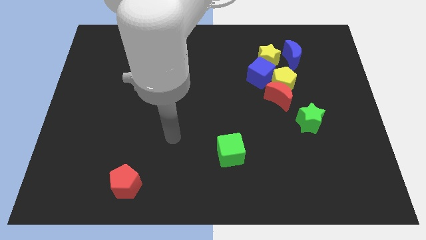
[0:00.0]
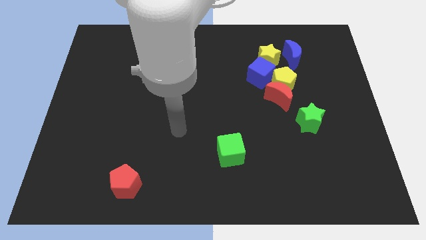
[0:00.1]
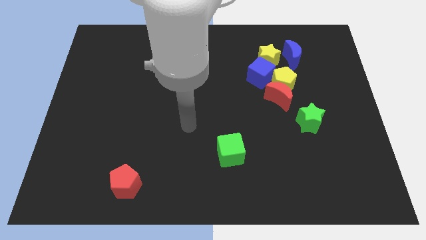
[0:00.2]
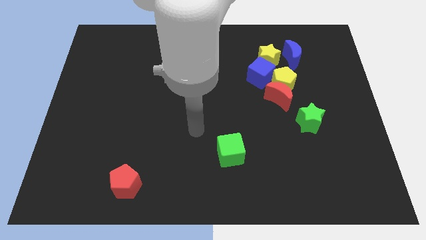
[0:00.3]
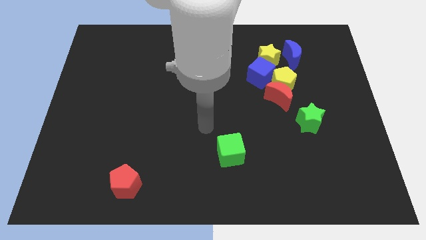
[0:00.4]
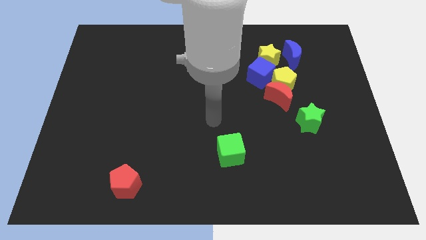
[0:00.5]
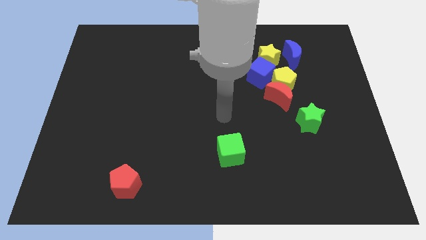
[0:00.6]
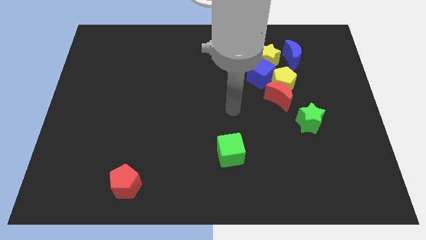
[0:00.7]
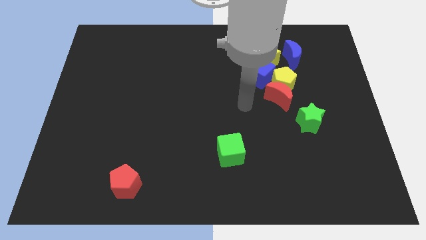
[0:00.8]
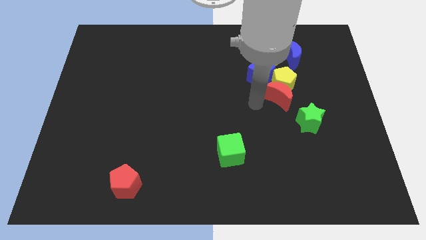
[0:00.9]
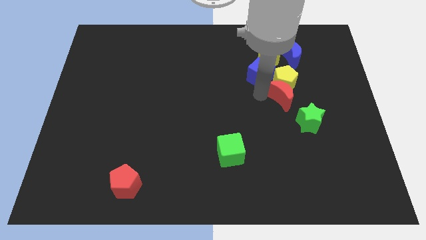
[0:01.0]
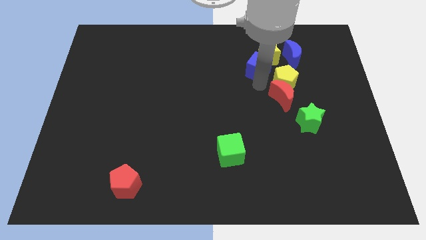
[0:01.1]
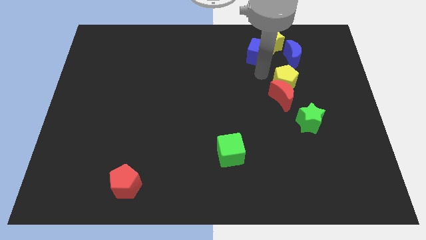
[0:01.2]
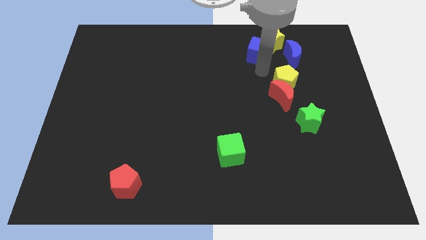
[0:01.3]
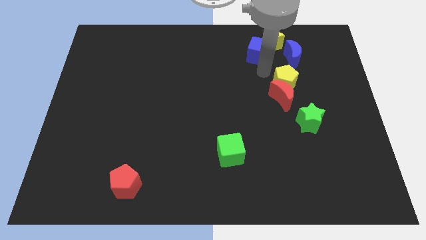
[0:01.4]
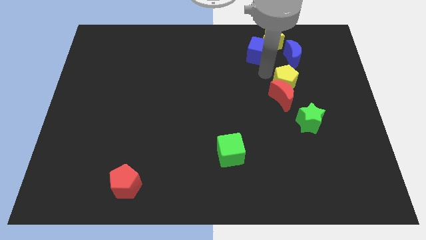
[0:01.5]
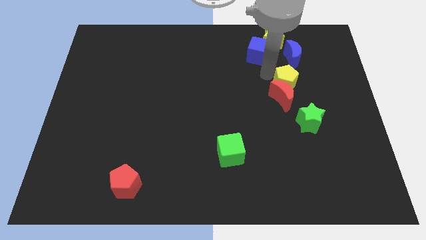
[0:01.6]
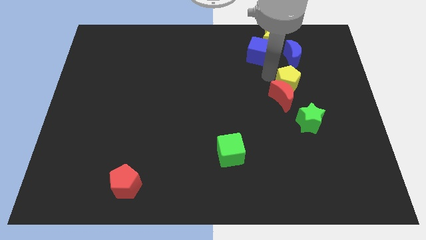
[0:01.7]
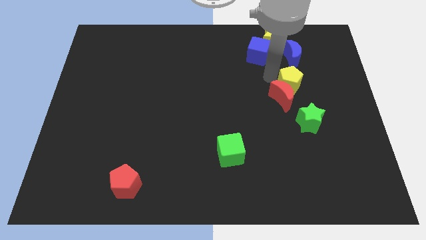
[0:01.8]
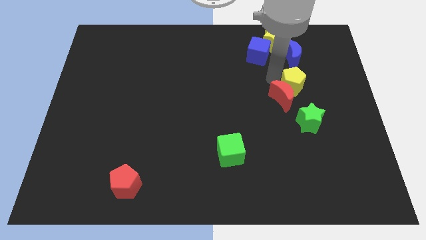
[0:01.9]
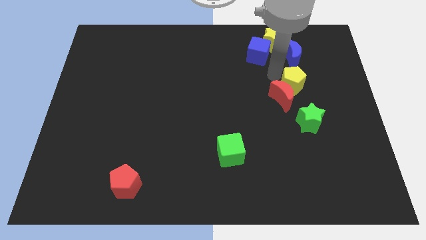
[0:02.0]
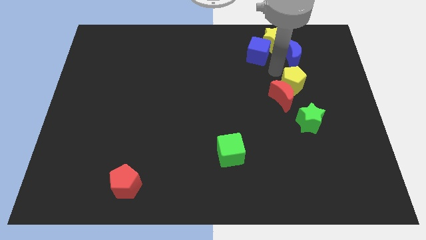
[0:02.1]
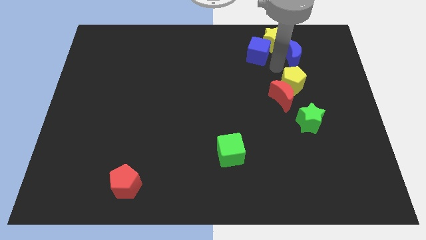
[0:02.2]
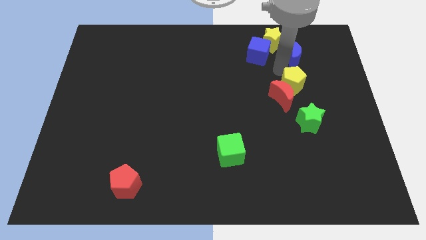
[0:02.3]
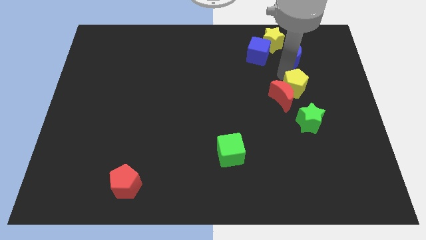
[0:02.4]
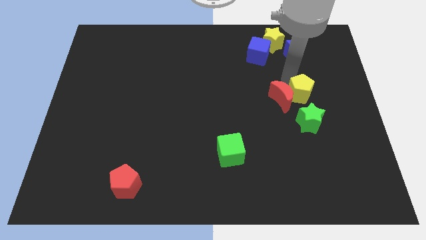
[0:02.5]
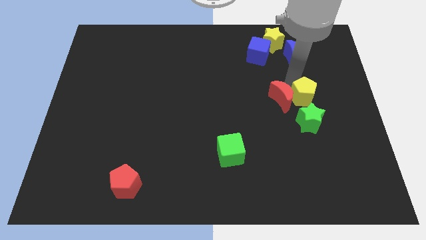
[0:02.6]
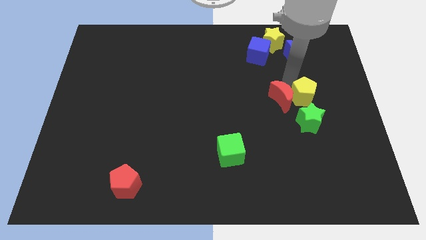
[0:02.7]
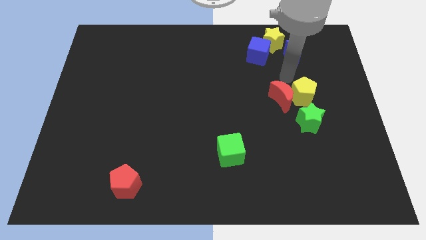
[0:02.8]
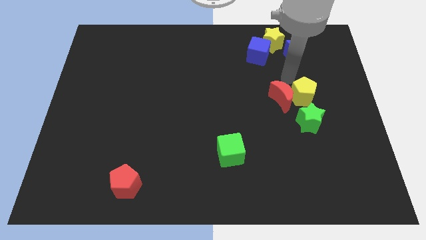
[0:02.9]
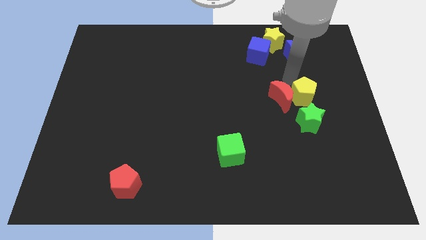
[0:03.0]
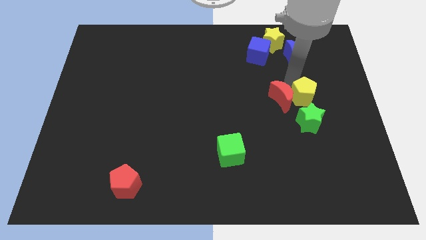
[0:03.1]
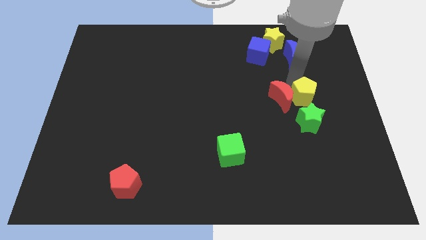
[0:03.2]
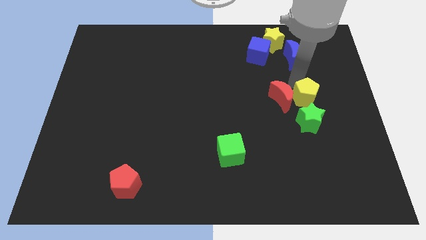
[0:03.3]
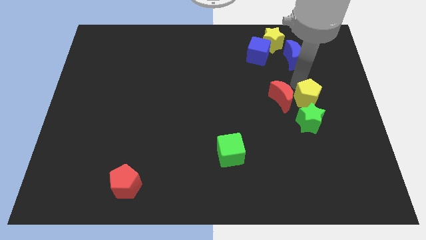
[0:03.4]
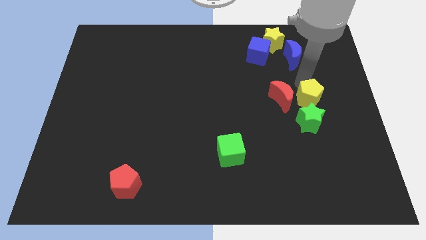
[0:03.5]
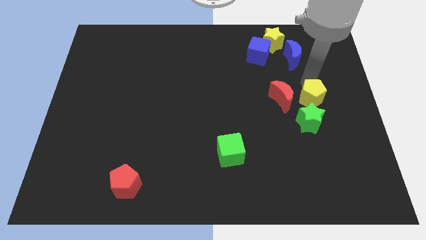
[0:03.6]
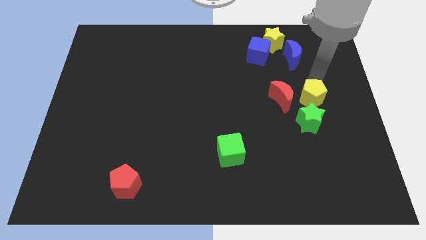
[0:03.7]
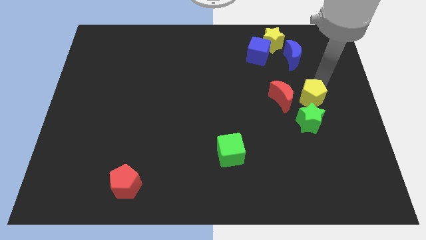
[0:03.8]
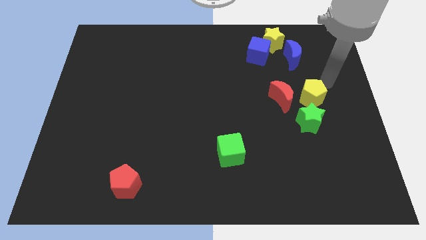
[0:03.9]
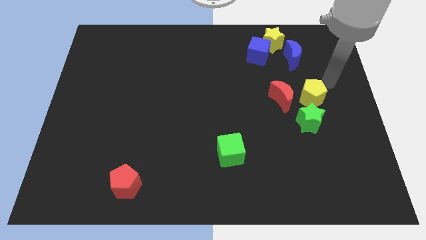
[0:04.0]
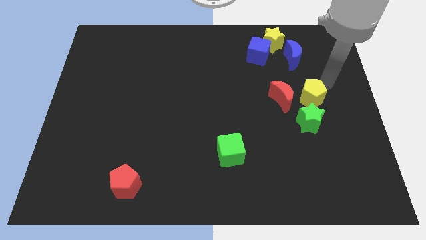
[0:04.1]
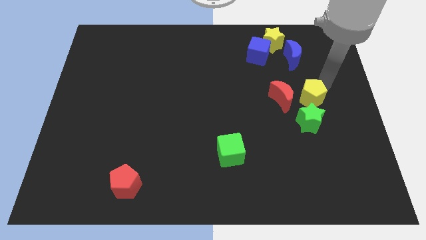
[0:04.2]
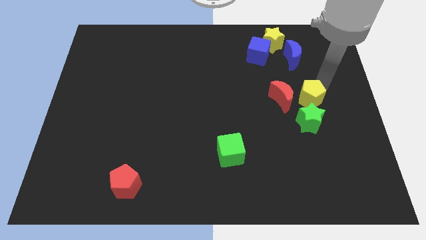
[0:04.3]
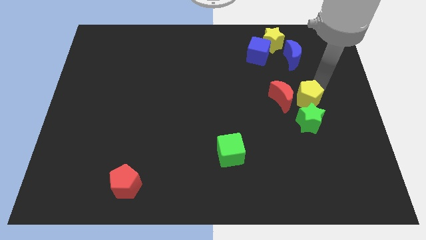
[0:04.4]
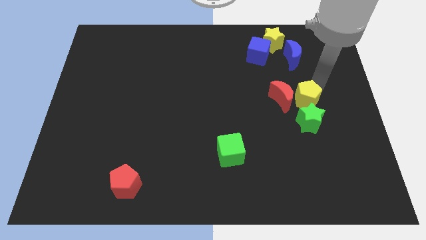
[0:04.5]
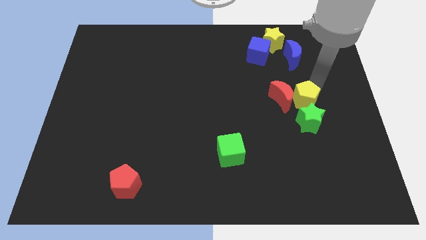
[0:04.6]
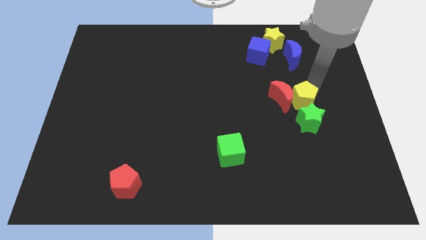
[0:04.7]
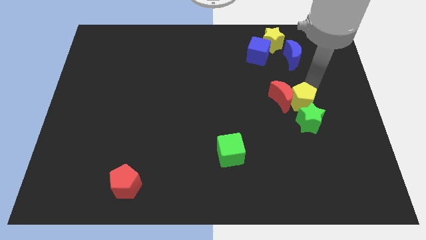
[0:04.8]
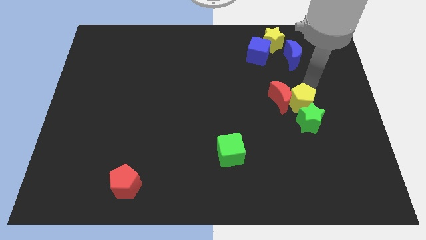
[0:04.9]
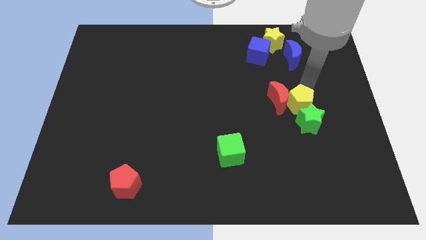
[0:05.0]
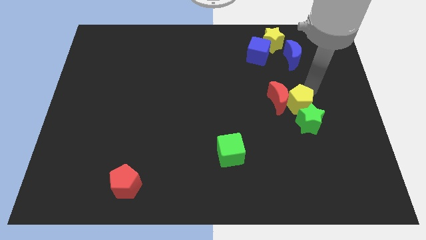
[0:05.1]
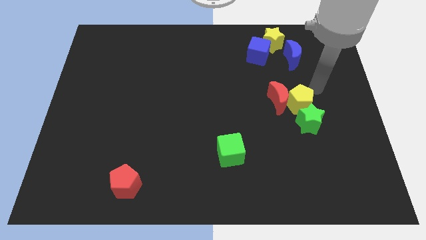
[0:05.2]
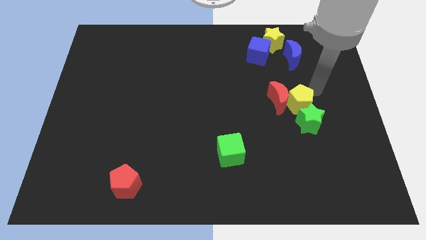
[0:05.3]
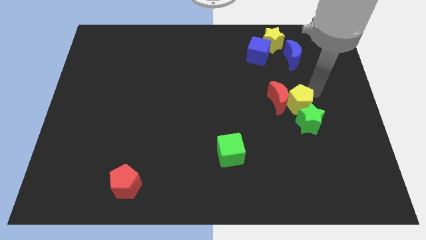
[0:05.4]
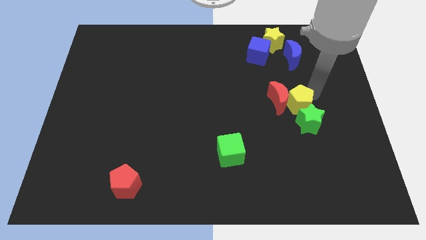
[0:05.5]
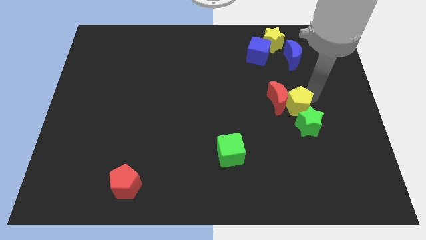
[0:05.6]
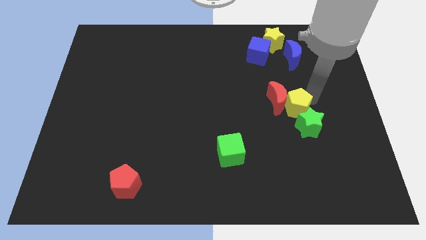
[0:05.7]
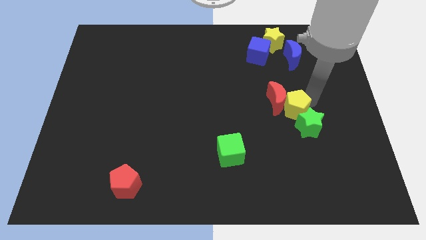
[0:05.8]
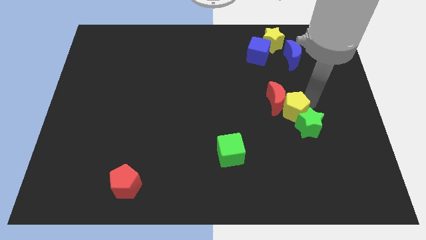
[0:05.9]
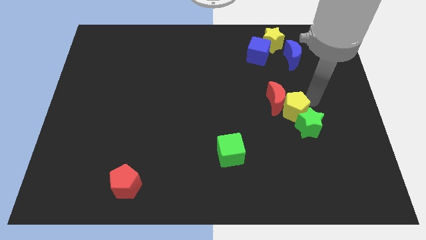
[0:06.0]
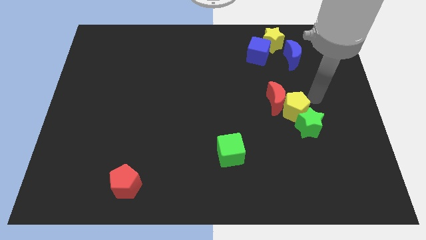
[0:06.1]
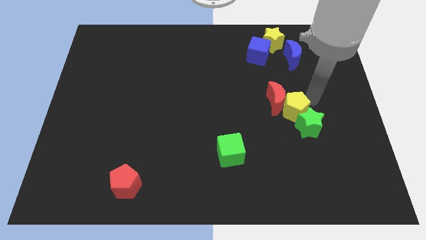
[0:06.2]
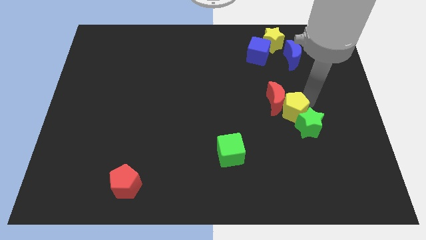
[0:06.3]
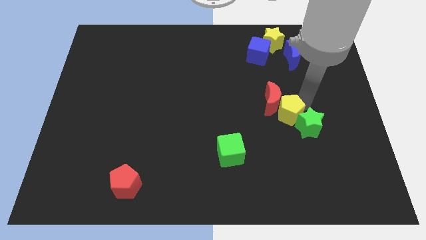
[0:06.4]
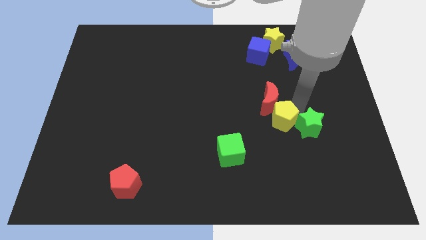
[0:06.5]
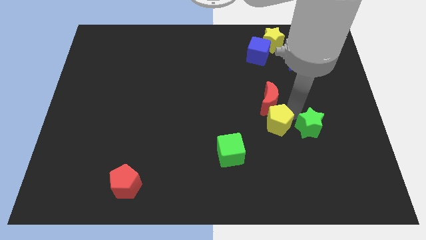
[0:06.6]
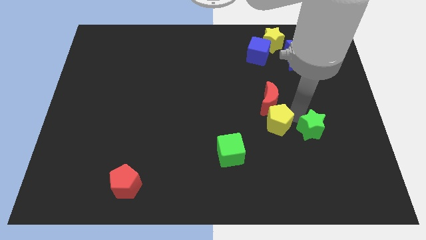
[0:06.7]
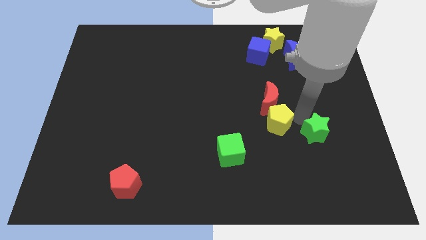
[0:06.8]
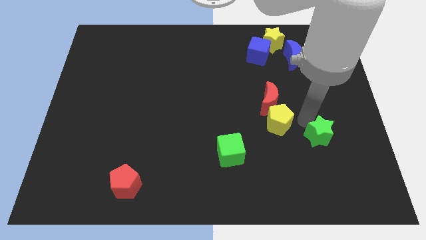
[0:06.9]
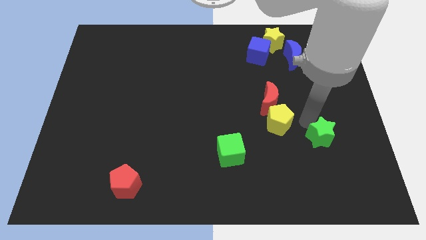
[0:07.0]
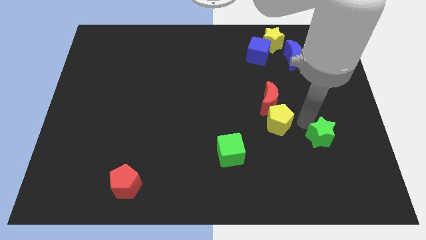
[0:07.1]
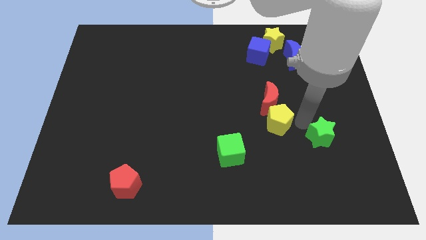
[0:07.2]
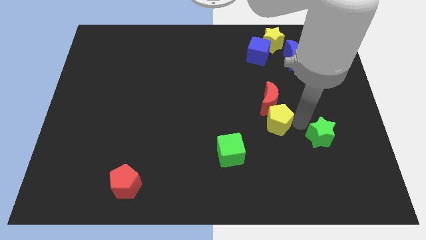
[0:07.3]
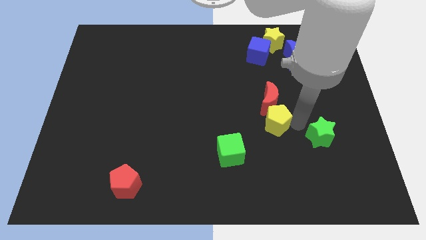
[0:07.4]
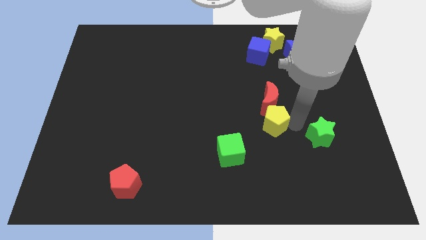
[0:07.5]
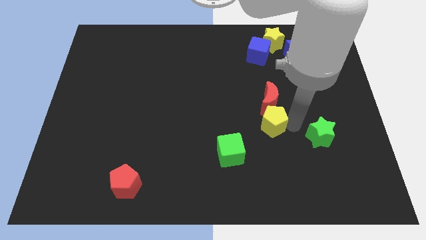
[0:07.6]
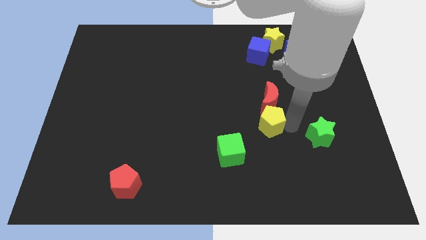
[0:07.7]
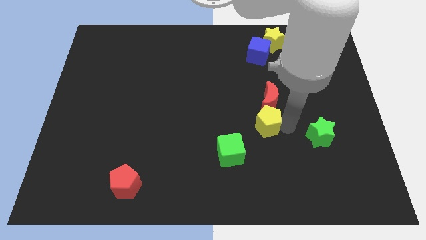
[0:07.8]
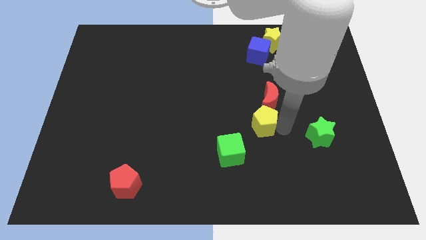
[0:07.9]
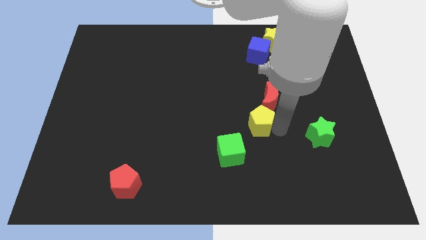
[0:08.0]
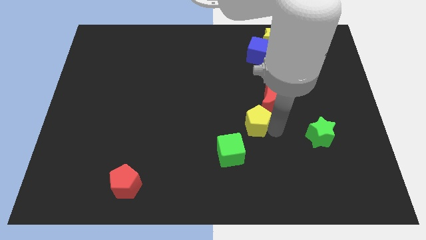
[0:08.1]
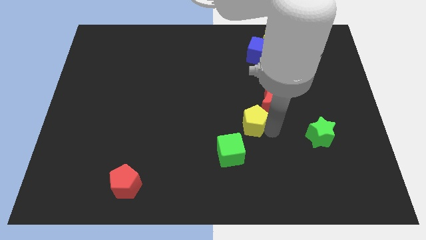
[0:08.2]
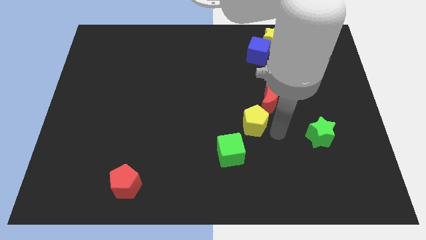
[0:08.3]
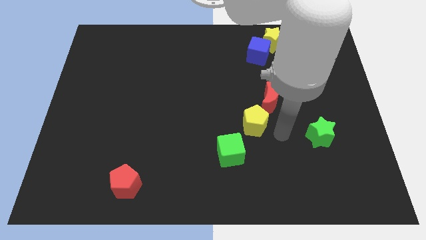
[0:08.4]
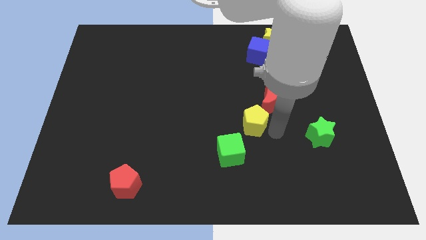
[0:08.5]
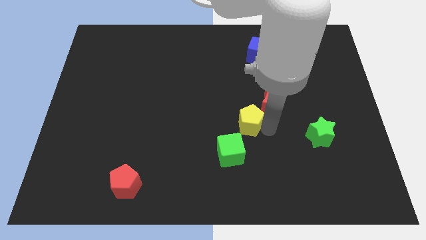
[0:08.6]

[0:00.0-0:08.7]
slide the yellow pentagon to the top side of the green cube
